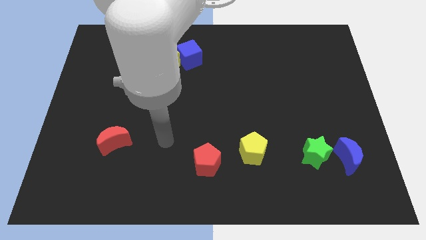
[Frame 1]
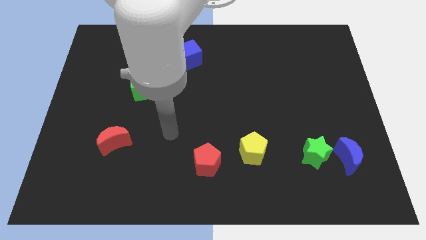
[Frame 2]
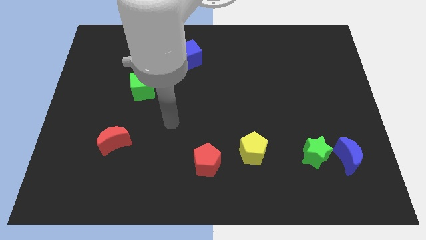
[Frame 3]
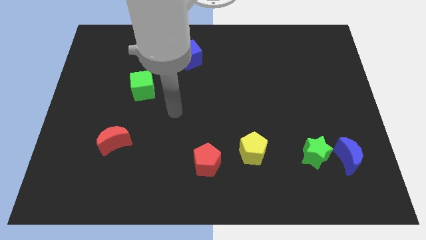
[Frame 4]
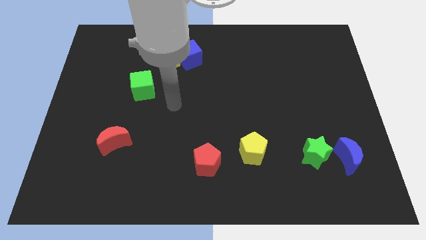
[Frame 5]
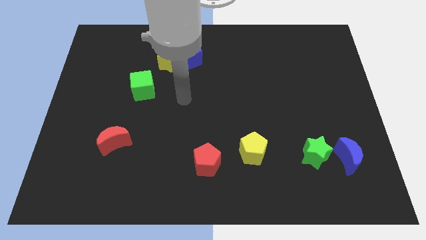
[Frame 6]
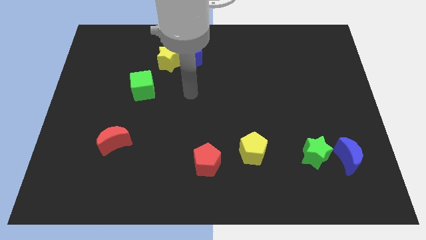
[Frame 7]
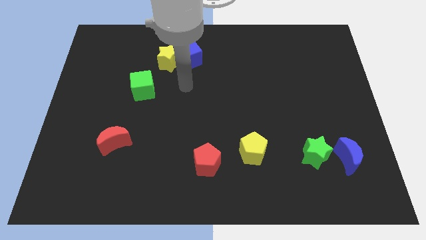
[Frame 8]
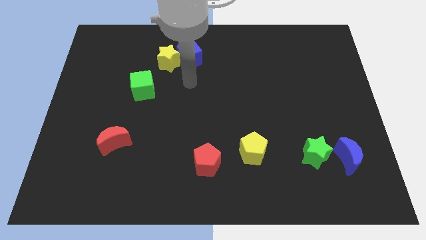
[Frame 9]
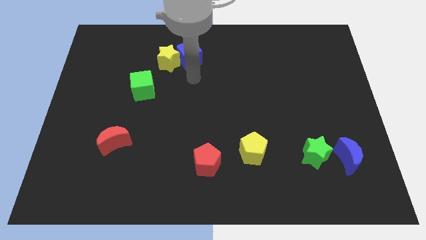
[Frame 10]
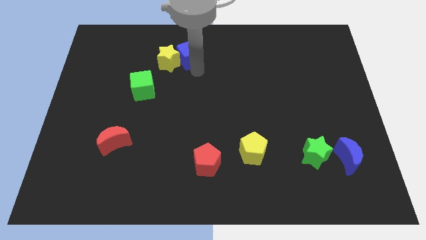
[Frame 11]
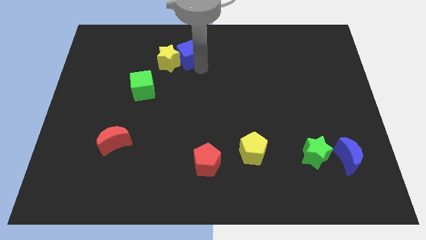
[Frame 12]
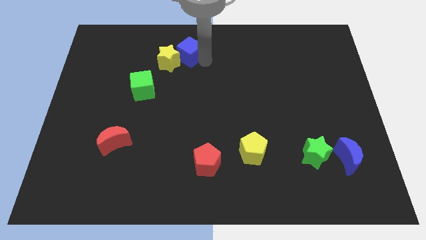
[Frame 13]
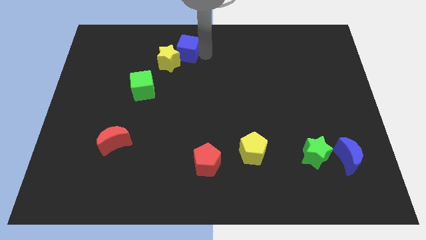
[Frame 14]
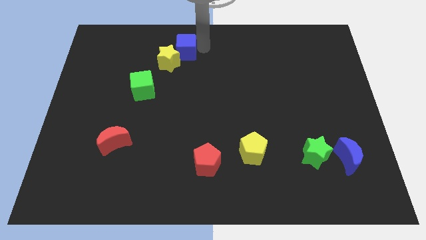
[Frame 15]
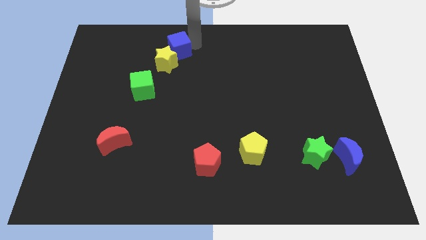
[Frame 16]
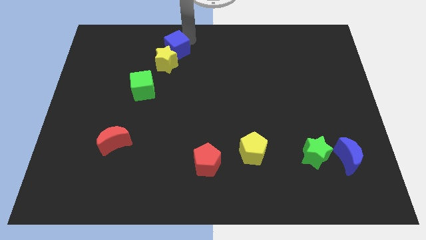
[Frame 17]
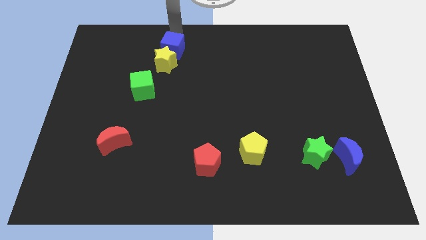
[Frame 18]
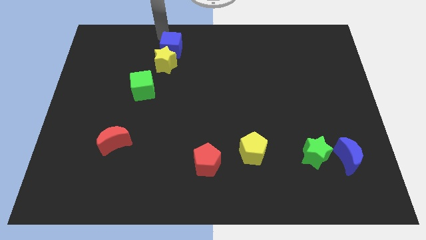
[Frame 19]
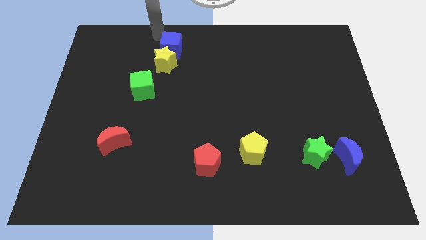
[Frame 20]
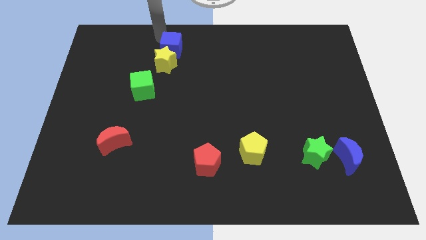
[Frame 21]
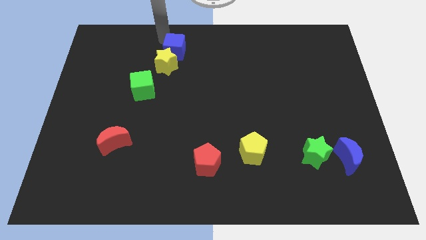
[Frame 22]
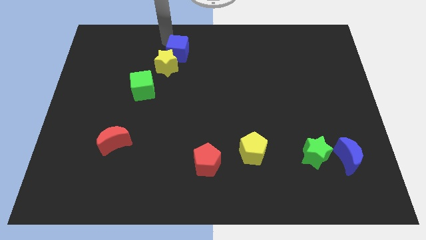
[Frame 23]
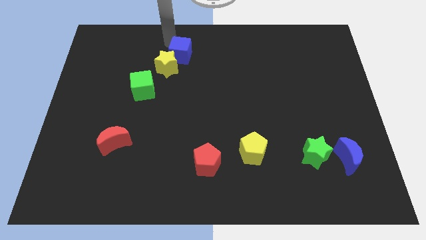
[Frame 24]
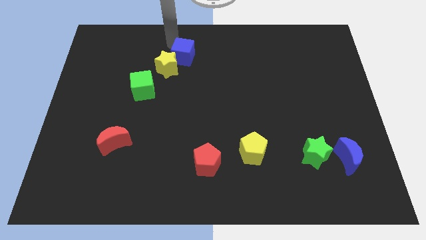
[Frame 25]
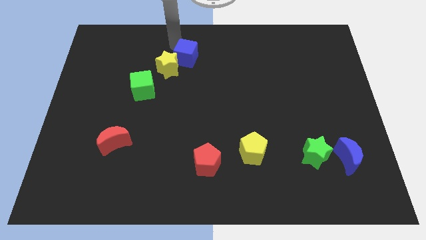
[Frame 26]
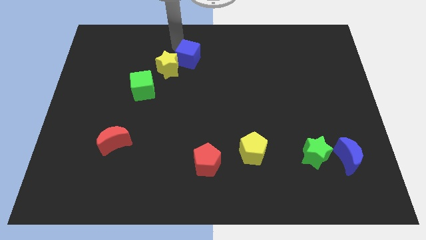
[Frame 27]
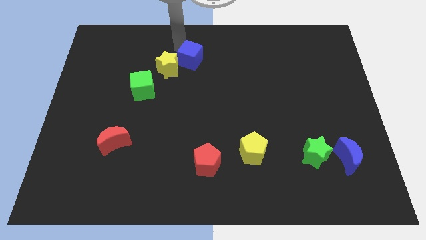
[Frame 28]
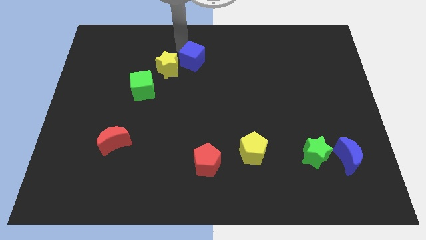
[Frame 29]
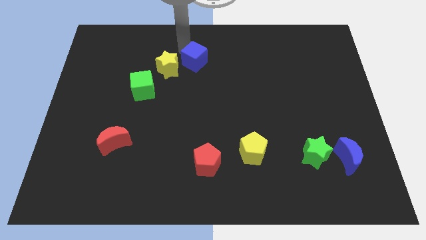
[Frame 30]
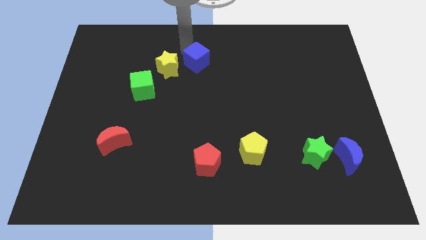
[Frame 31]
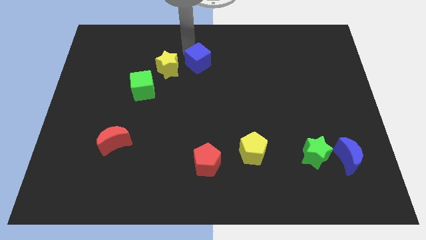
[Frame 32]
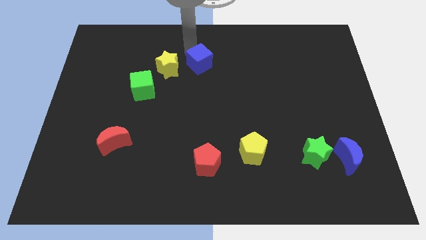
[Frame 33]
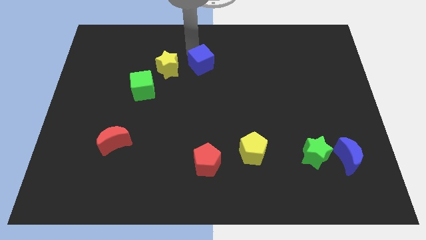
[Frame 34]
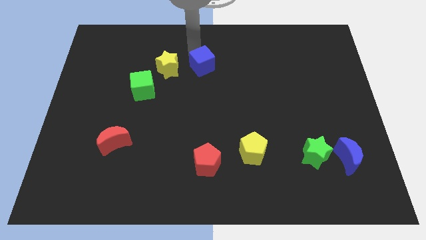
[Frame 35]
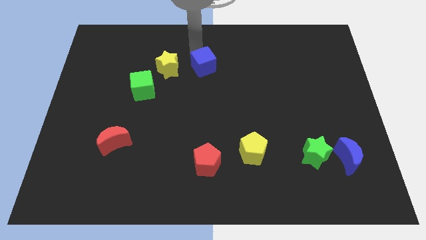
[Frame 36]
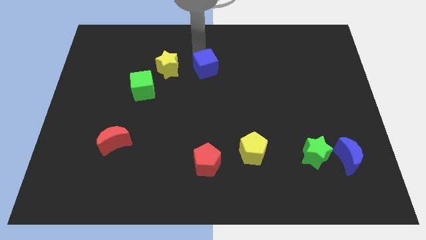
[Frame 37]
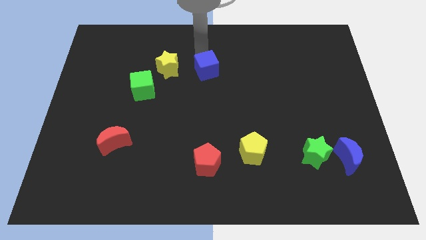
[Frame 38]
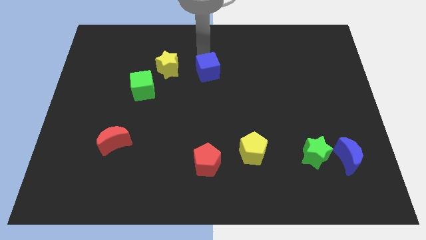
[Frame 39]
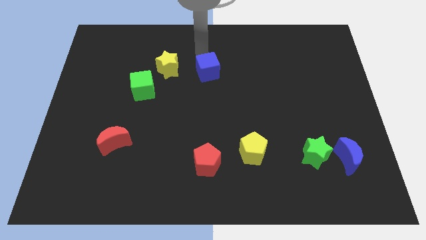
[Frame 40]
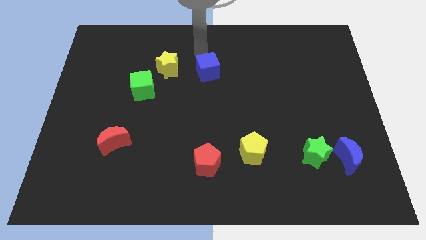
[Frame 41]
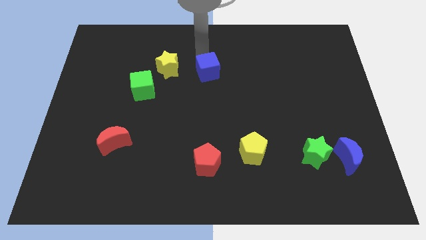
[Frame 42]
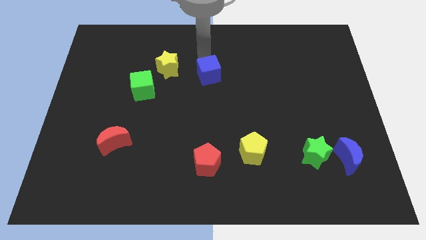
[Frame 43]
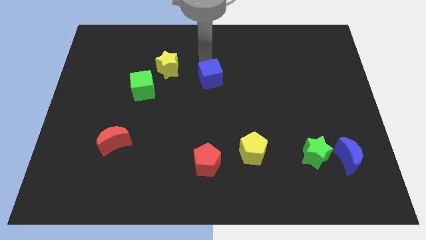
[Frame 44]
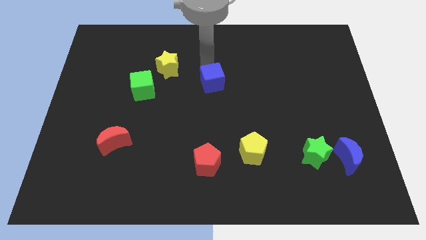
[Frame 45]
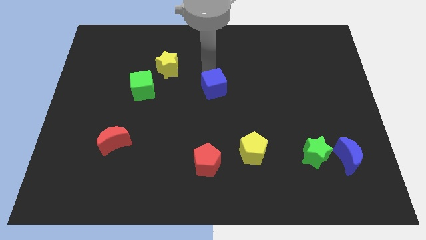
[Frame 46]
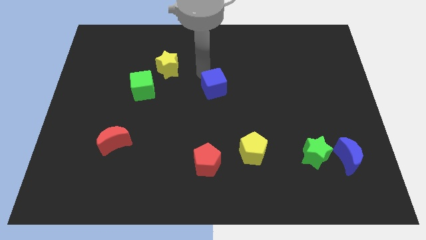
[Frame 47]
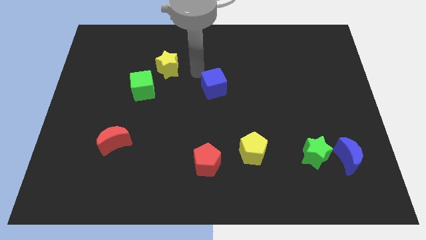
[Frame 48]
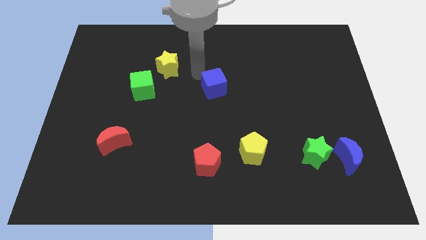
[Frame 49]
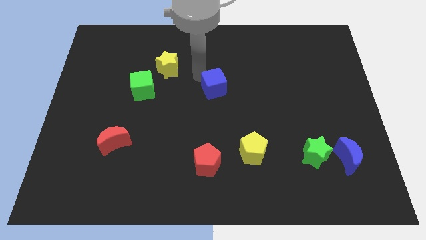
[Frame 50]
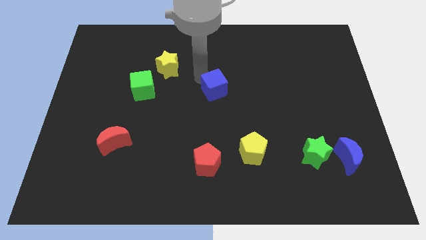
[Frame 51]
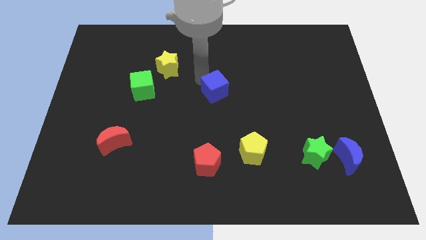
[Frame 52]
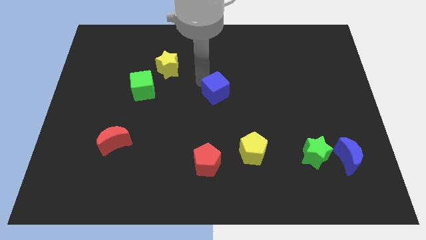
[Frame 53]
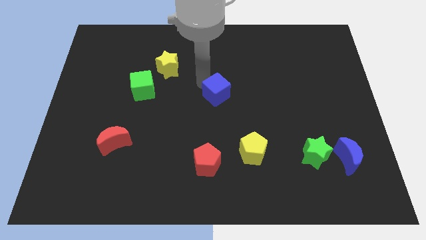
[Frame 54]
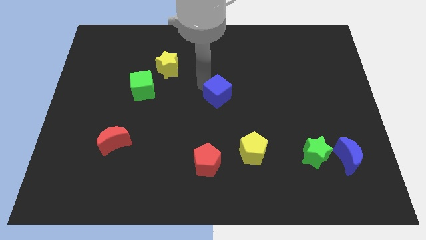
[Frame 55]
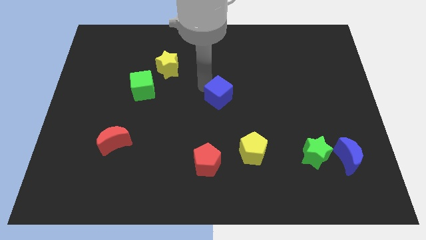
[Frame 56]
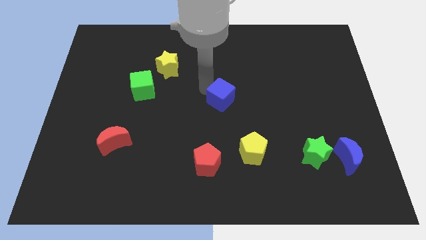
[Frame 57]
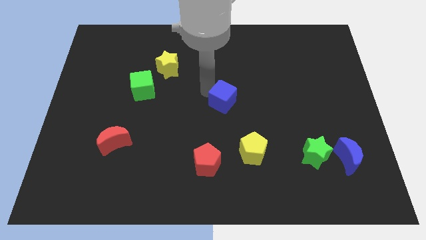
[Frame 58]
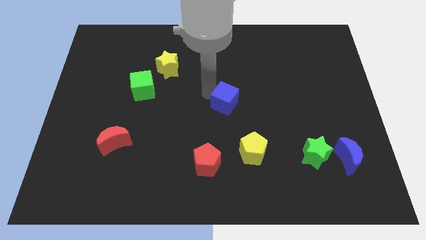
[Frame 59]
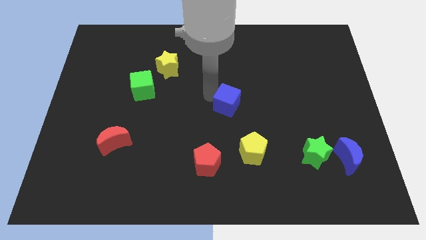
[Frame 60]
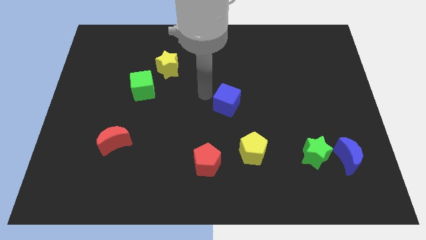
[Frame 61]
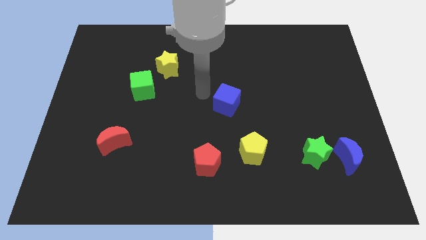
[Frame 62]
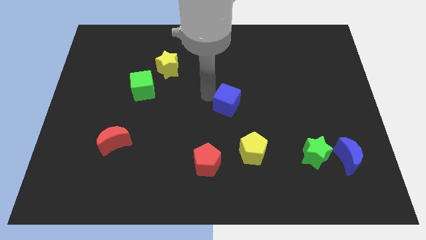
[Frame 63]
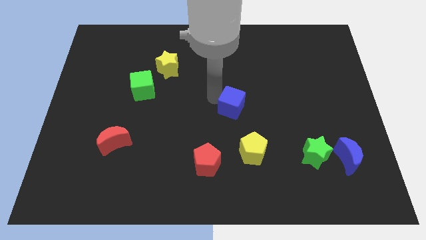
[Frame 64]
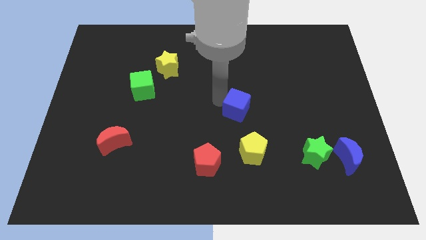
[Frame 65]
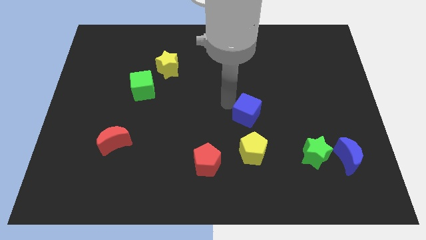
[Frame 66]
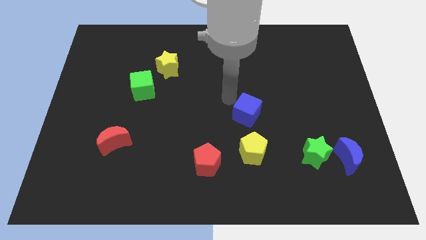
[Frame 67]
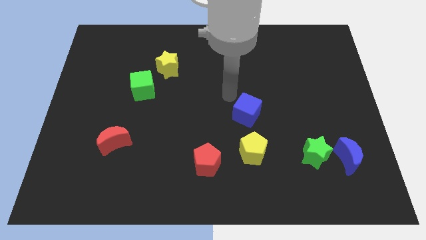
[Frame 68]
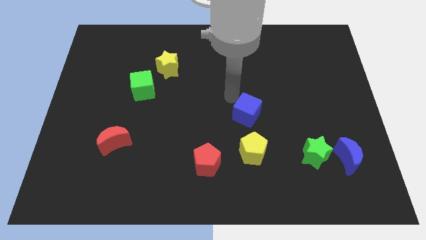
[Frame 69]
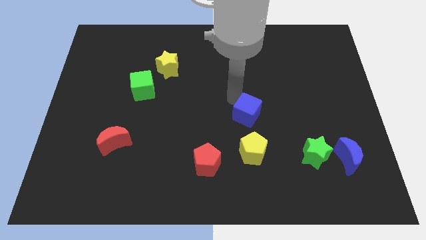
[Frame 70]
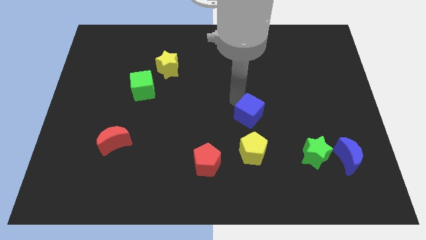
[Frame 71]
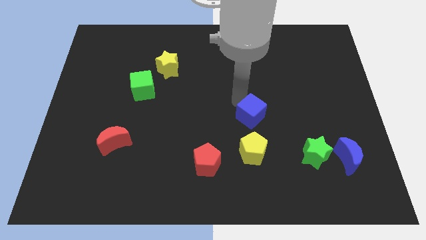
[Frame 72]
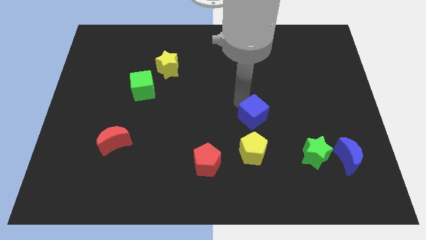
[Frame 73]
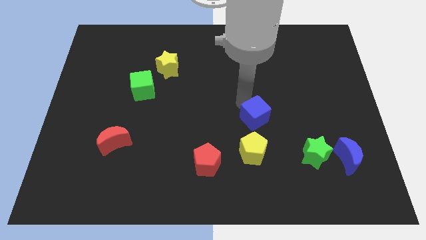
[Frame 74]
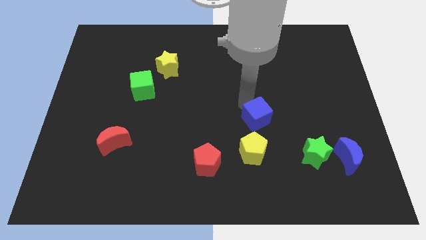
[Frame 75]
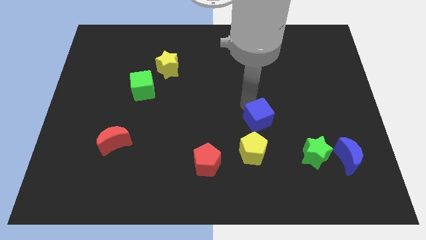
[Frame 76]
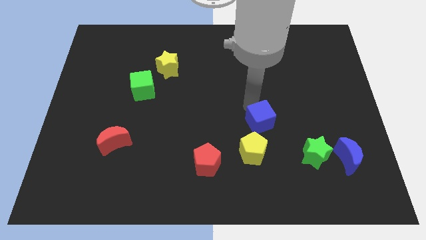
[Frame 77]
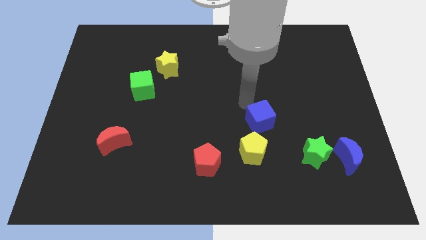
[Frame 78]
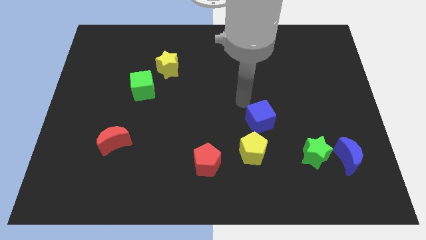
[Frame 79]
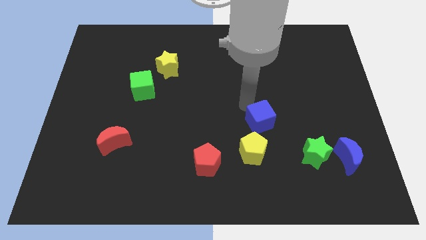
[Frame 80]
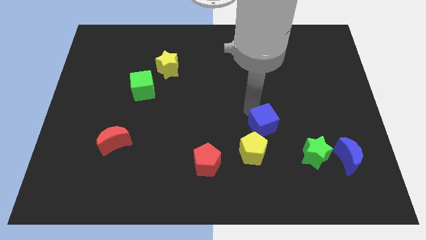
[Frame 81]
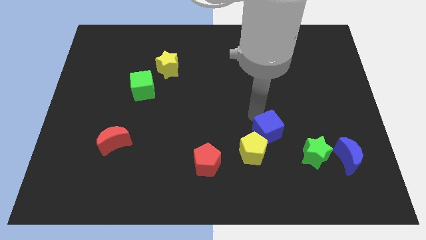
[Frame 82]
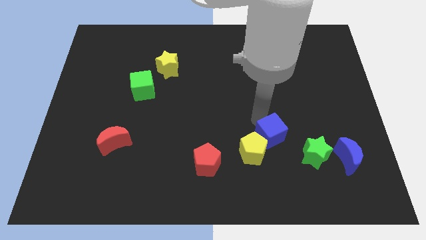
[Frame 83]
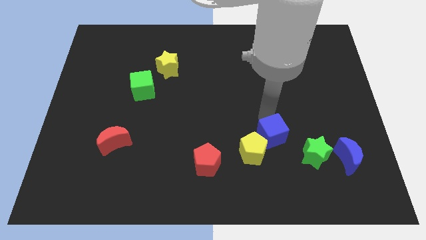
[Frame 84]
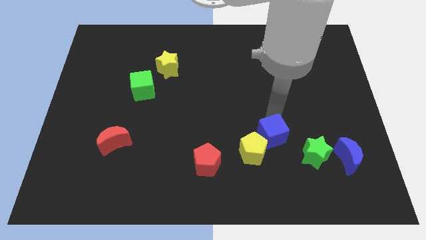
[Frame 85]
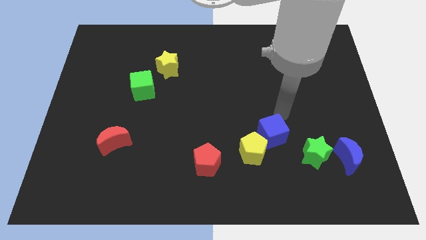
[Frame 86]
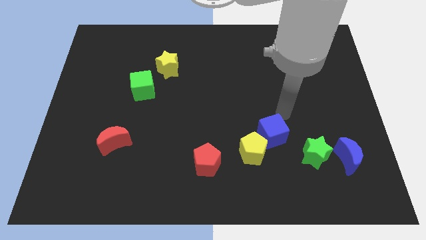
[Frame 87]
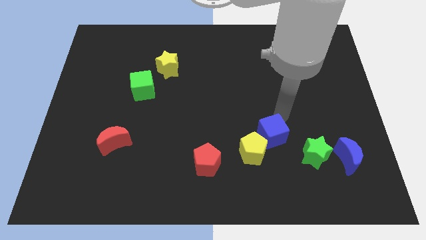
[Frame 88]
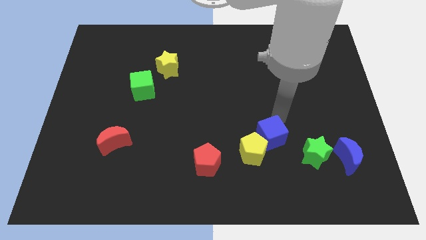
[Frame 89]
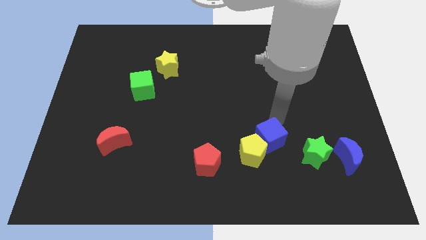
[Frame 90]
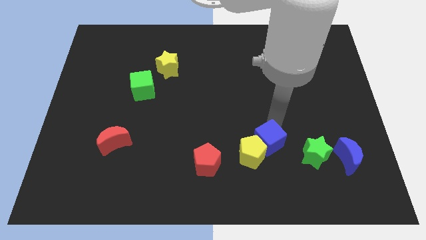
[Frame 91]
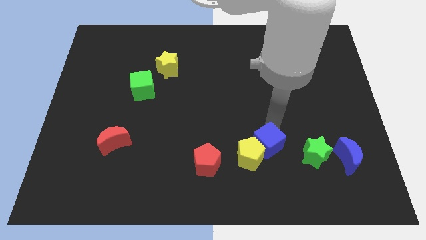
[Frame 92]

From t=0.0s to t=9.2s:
slide the blue cube to the right side of the red pentagon
